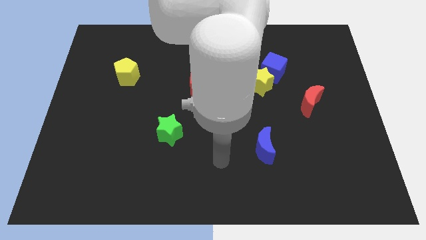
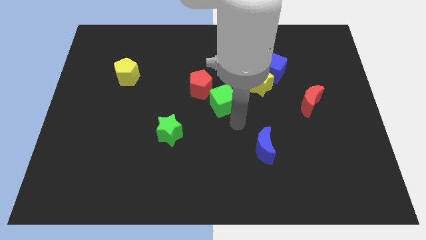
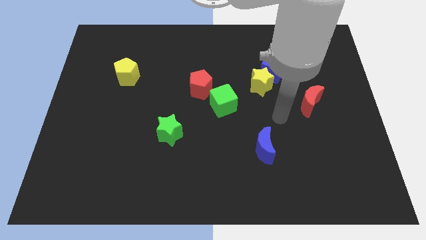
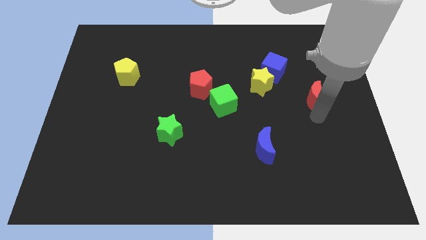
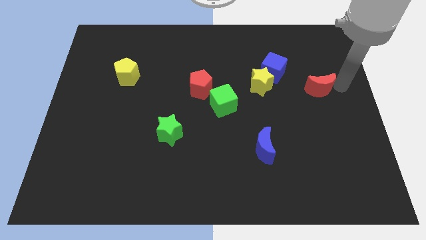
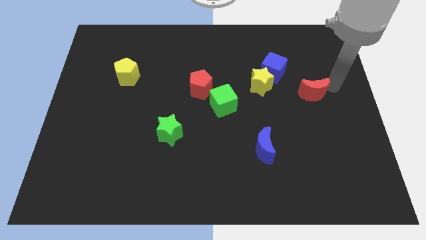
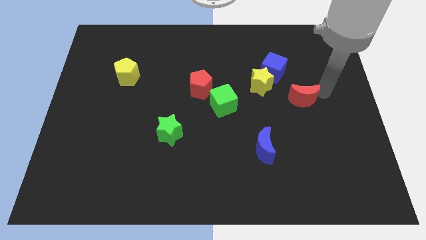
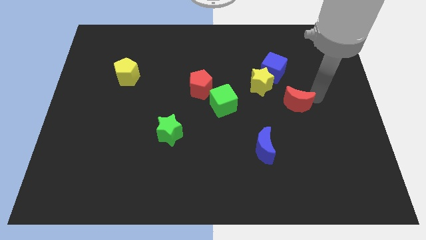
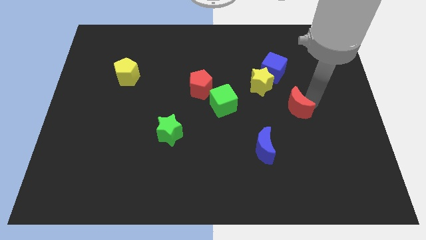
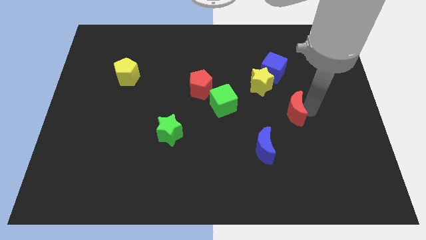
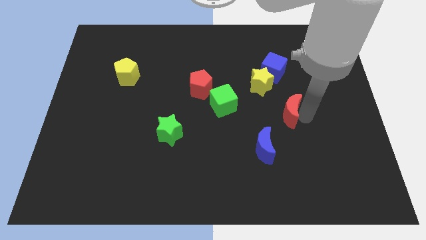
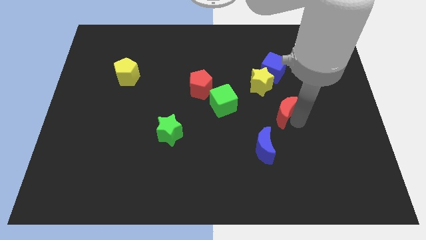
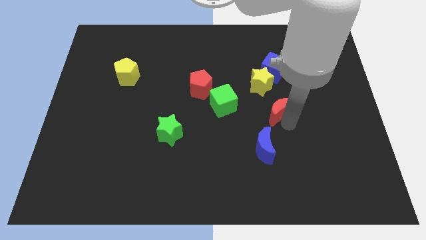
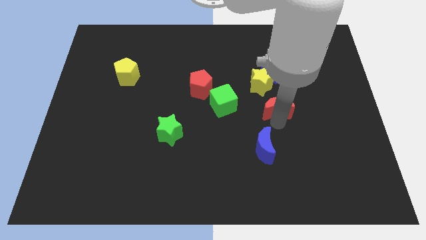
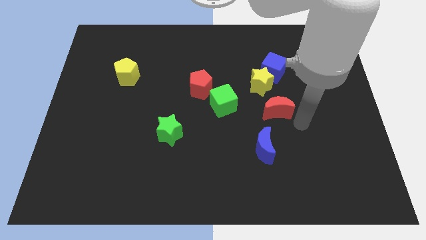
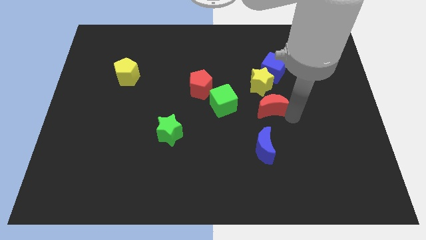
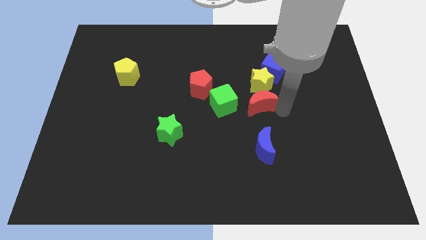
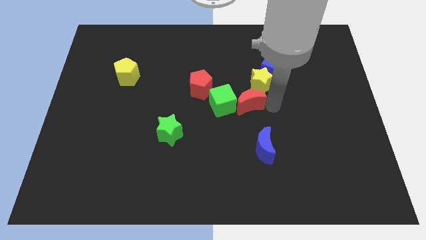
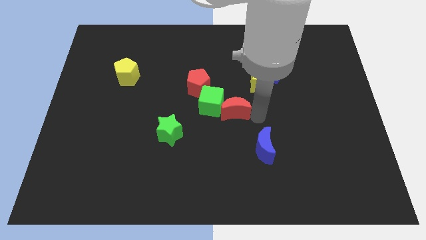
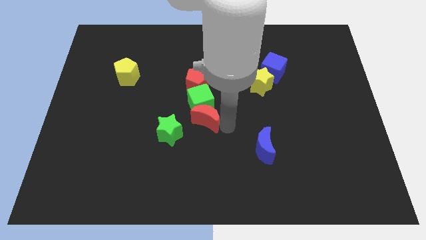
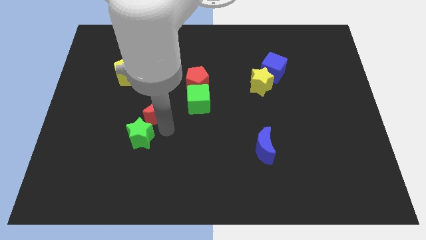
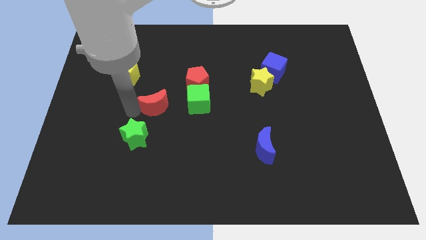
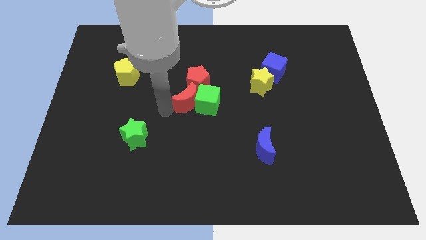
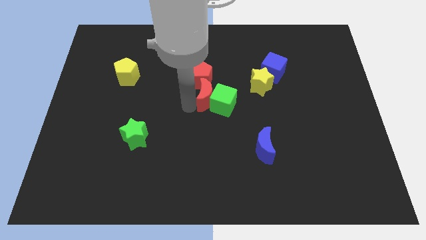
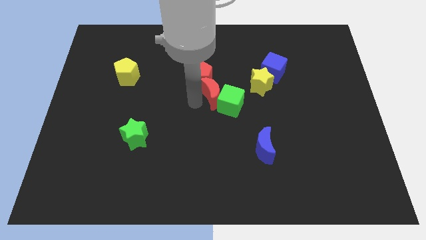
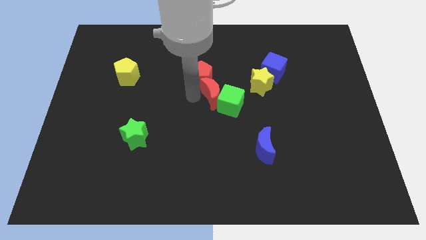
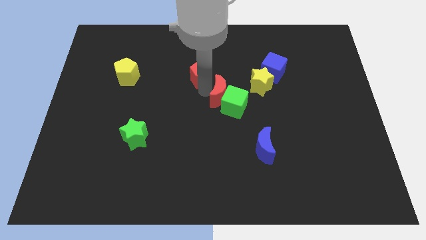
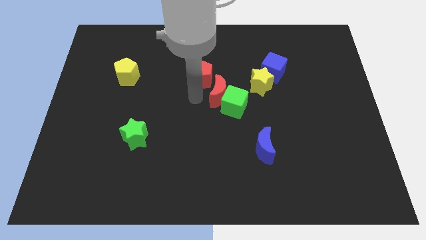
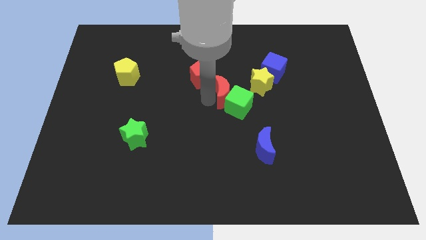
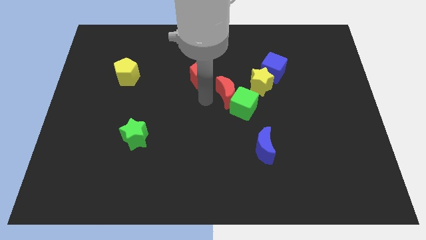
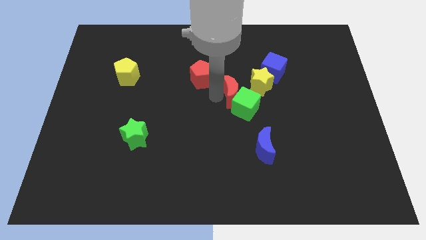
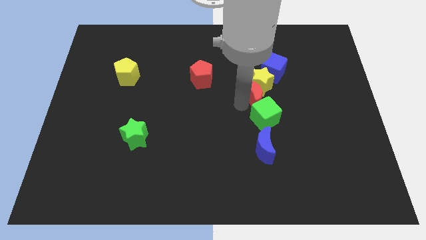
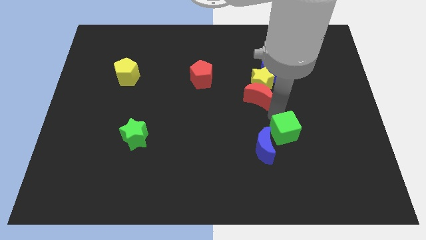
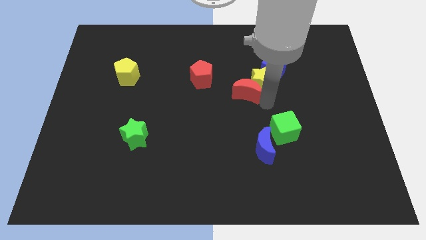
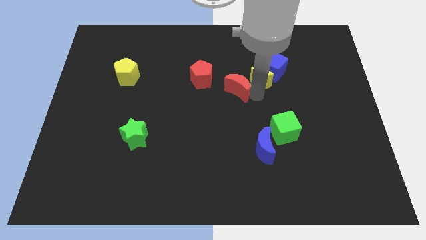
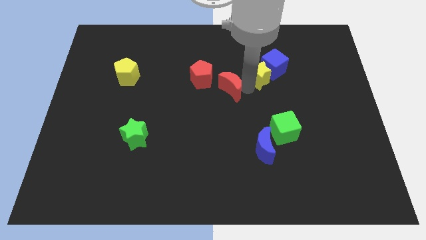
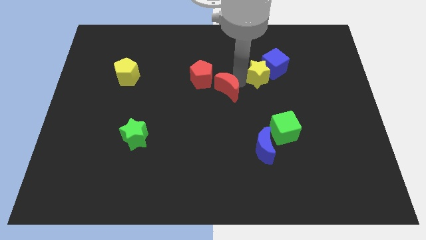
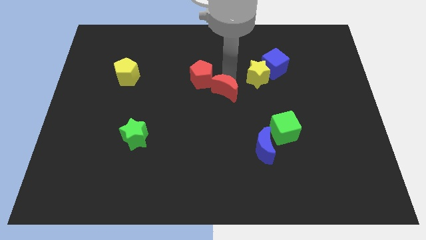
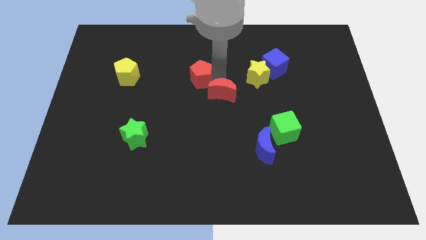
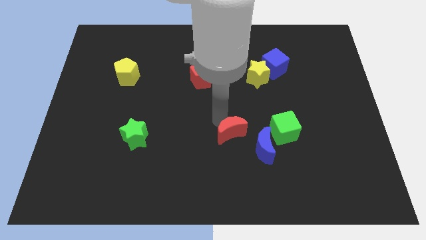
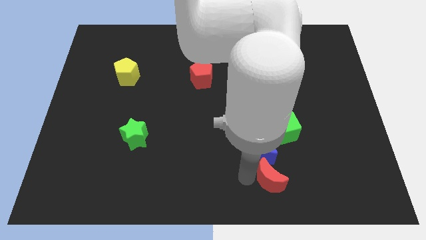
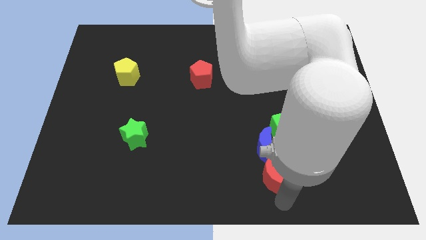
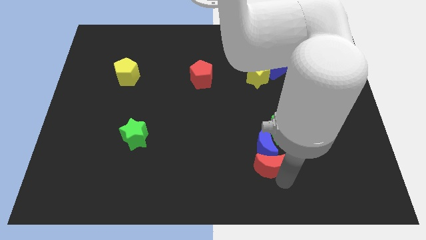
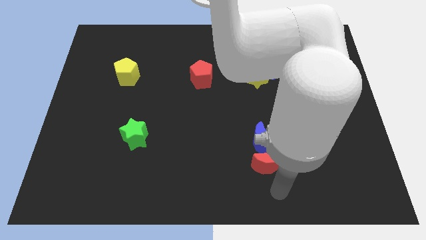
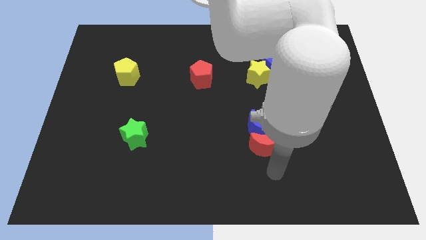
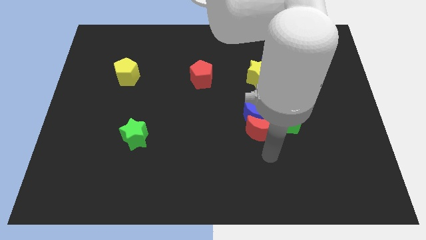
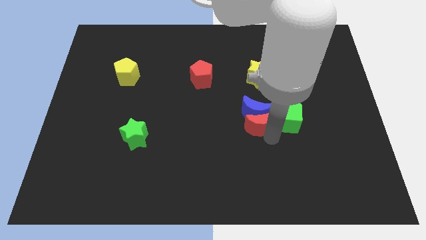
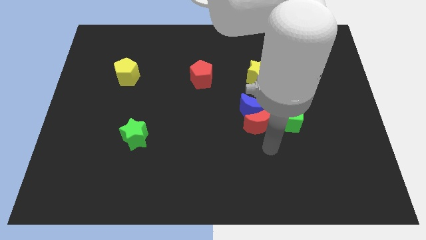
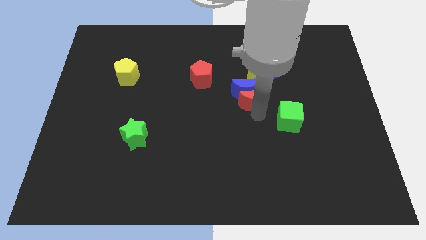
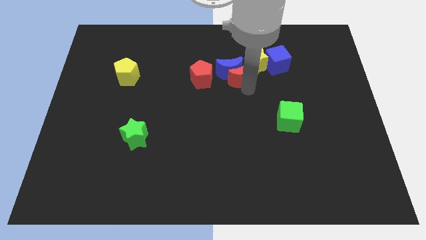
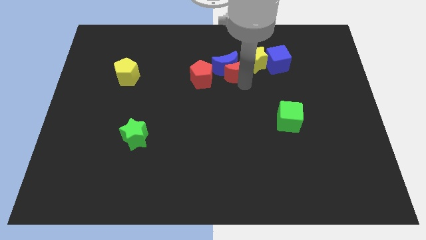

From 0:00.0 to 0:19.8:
slide the red moon to the left side of the blue cube

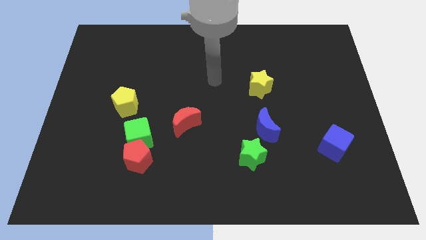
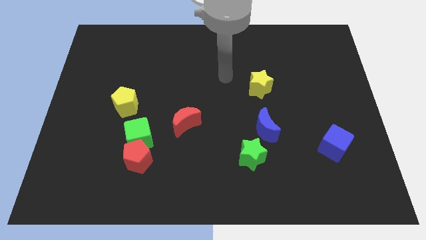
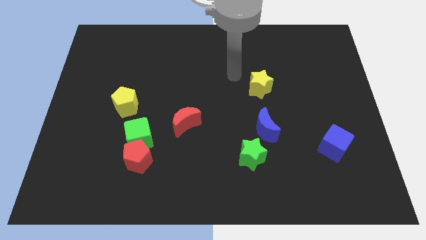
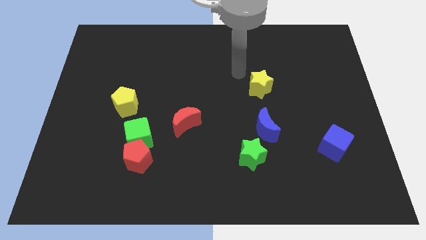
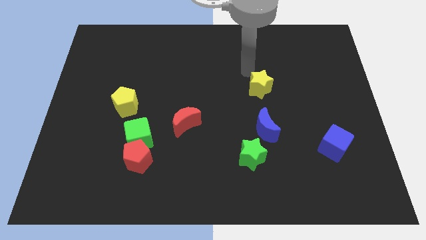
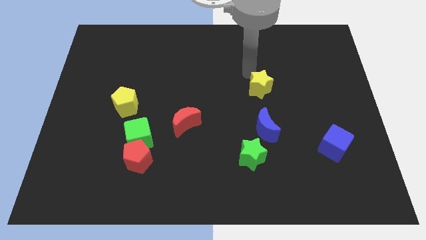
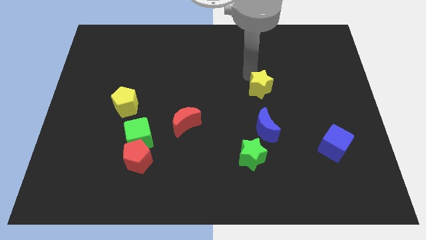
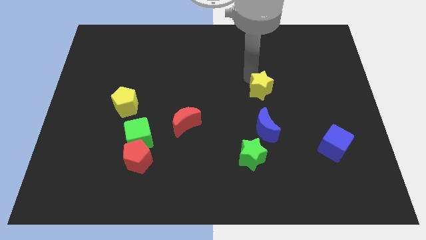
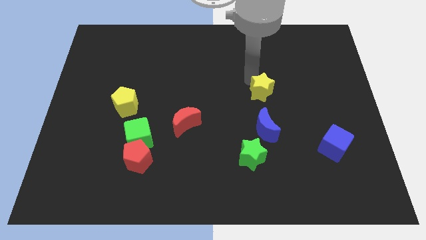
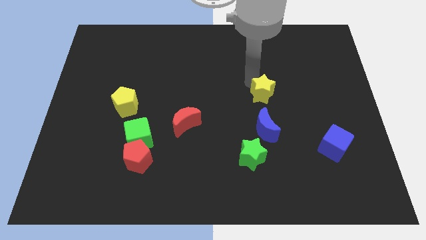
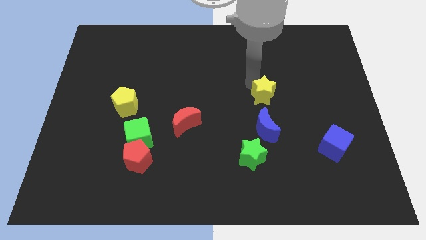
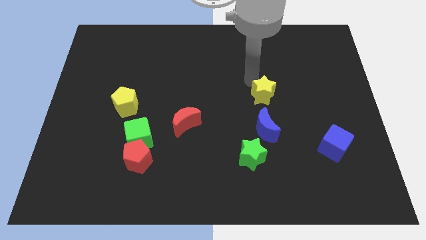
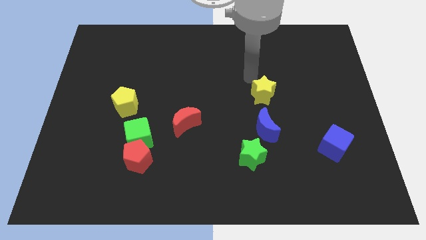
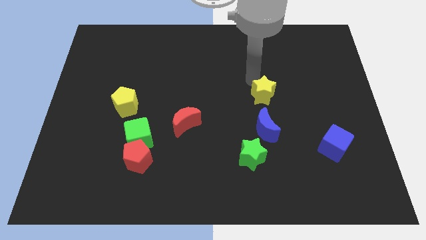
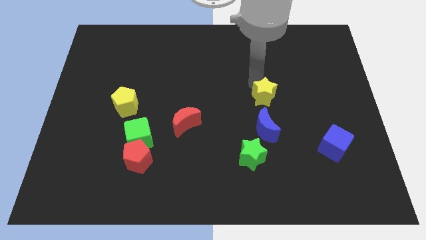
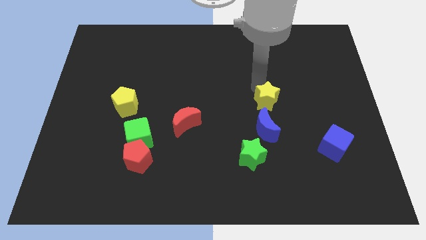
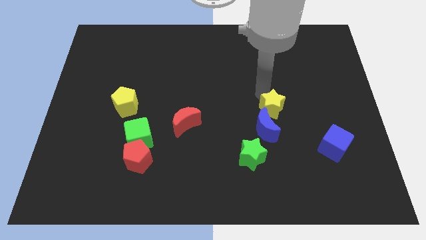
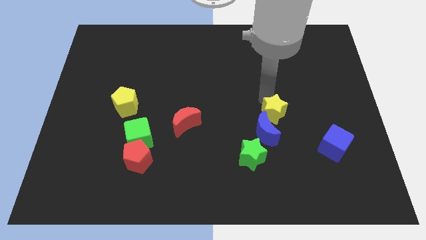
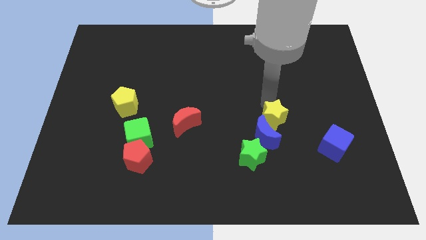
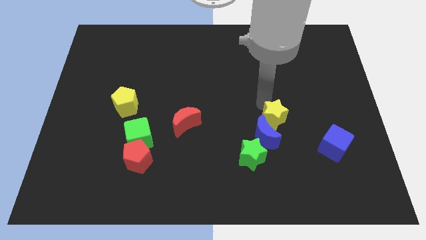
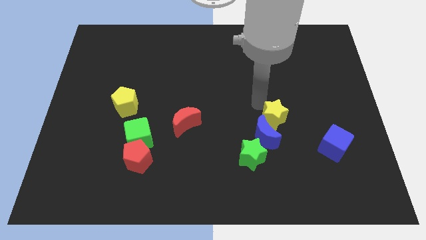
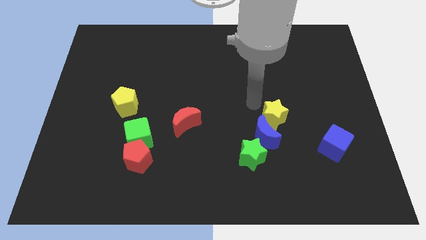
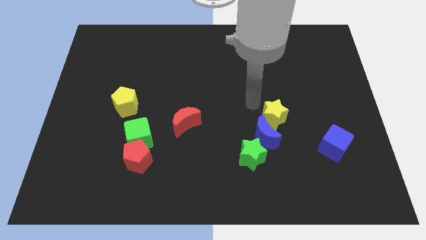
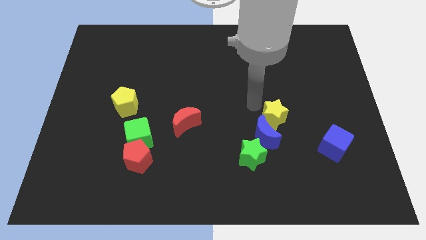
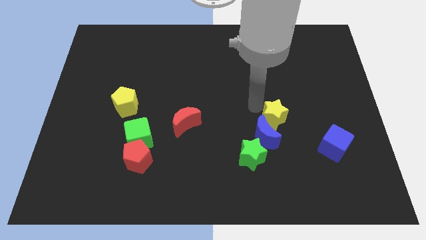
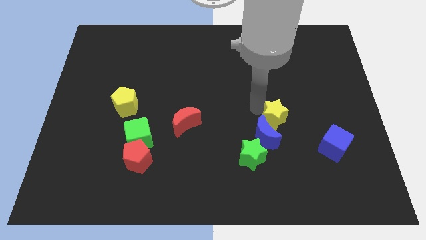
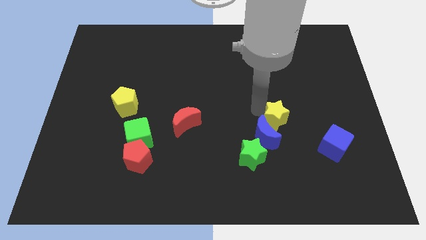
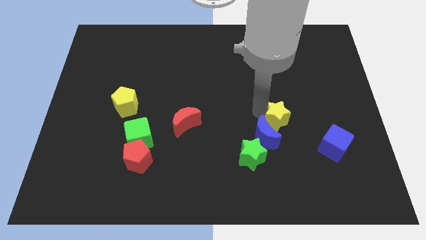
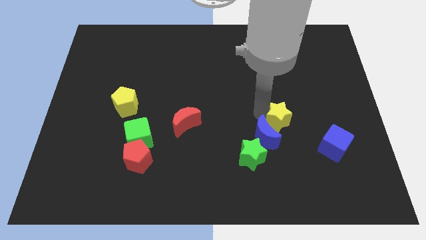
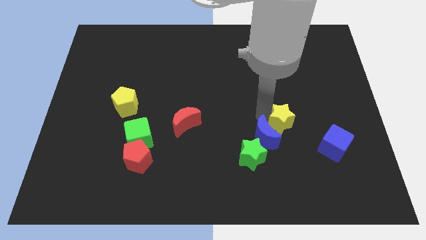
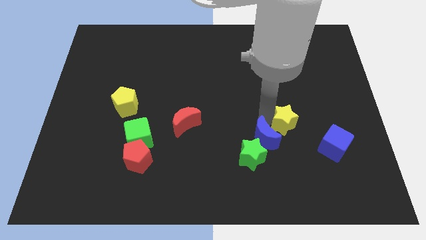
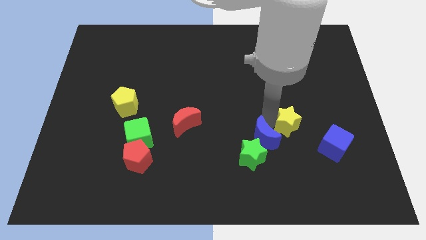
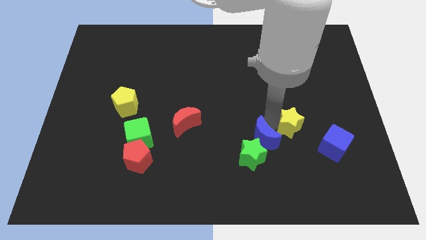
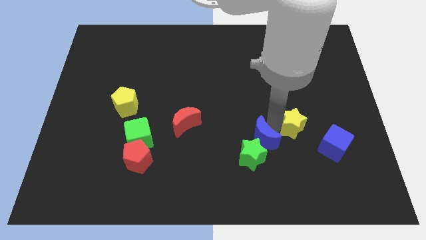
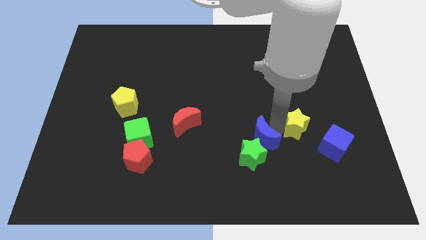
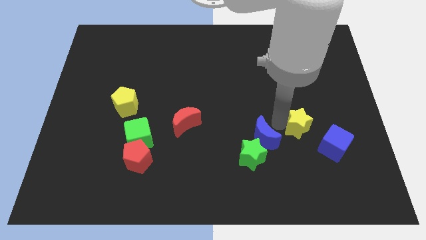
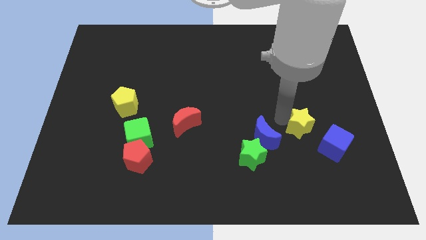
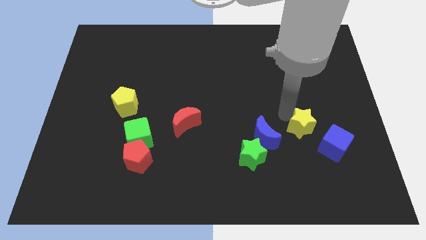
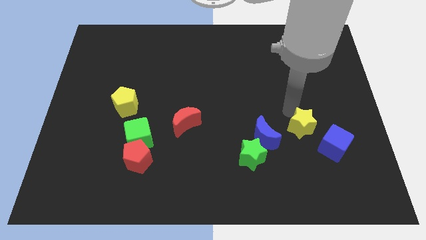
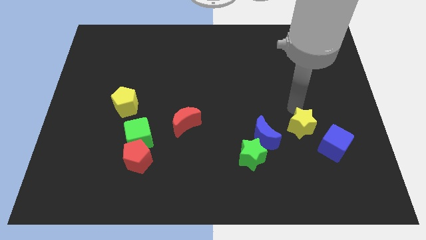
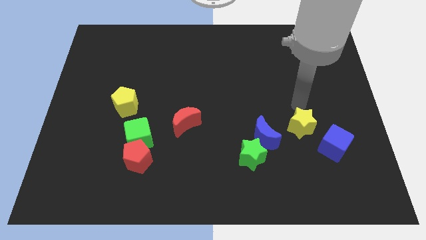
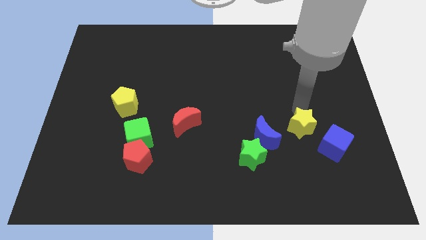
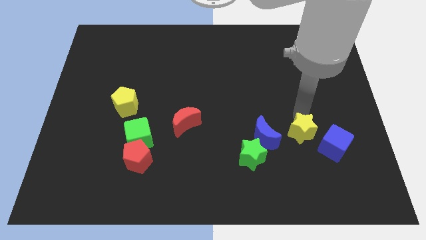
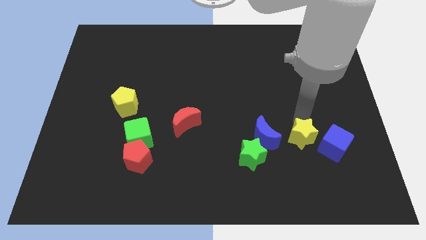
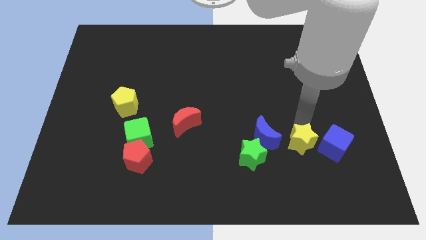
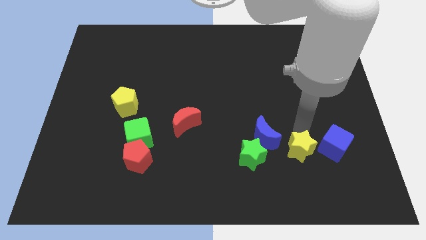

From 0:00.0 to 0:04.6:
push the yellow star to the bottom left of the blue cube
